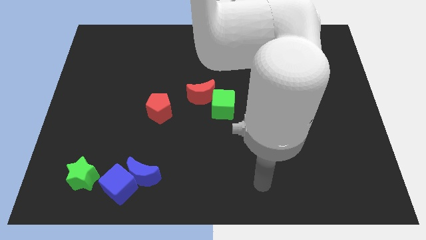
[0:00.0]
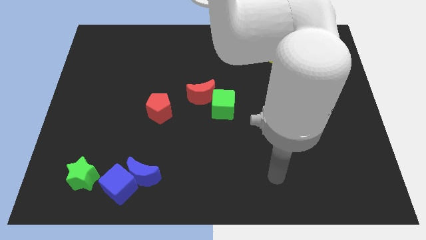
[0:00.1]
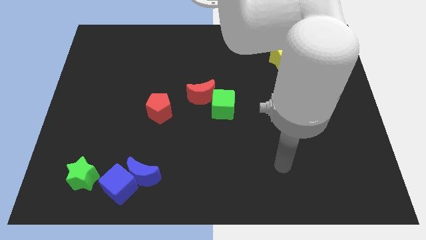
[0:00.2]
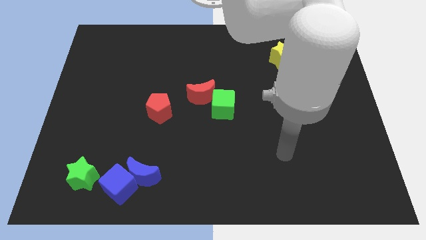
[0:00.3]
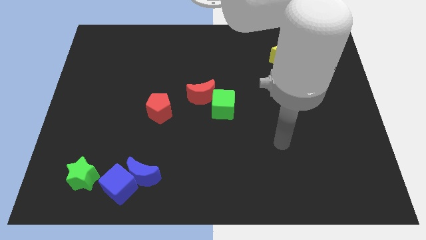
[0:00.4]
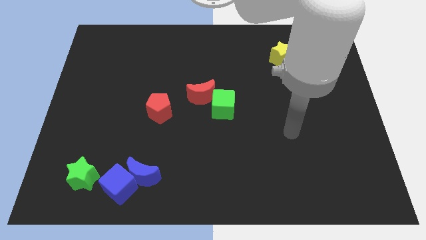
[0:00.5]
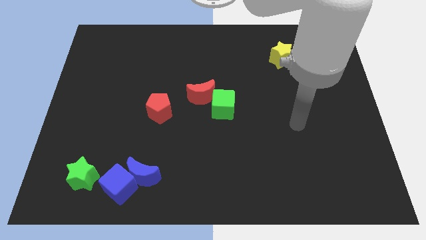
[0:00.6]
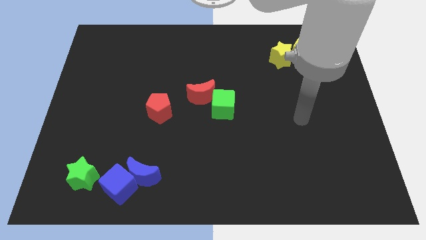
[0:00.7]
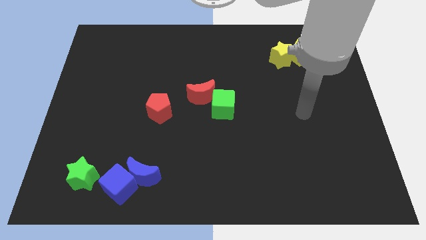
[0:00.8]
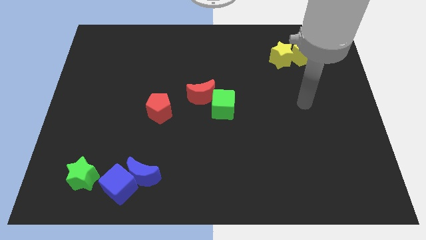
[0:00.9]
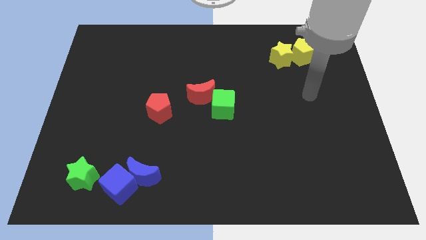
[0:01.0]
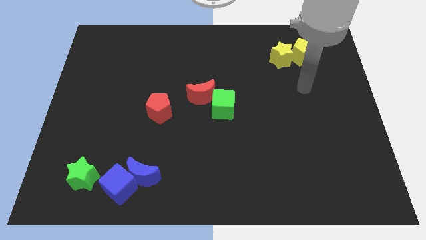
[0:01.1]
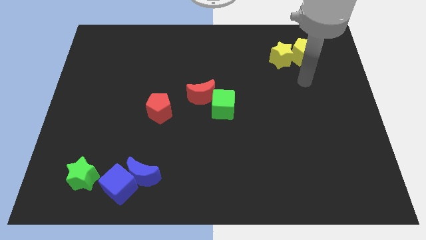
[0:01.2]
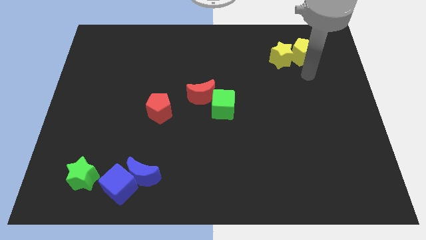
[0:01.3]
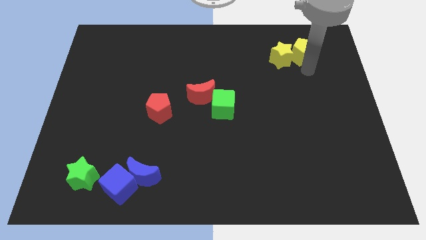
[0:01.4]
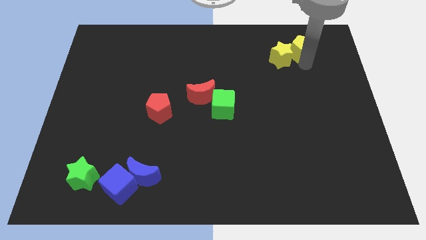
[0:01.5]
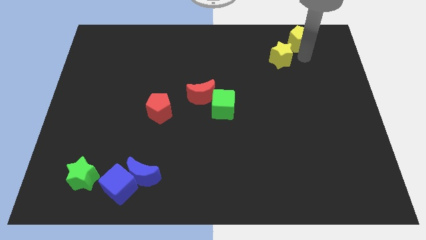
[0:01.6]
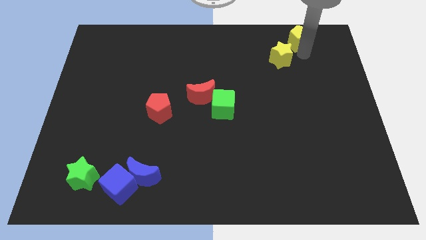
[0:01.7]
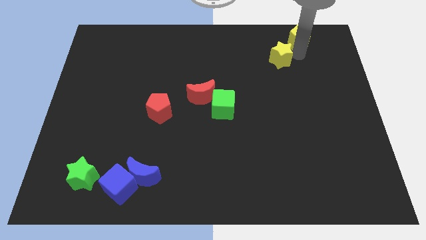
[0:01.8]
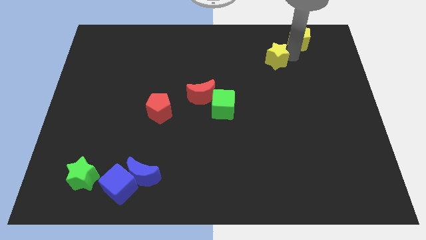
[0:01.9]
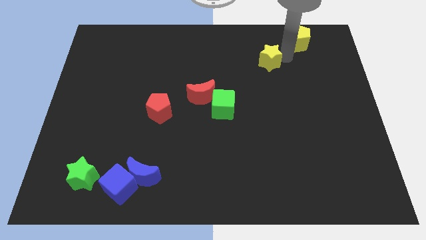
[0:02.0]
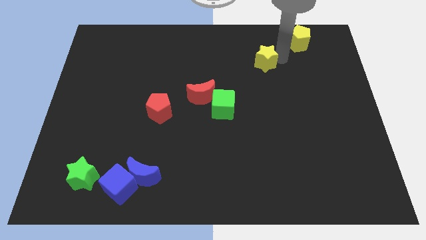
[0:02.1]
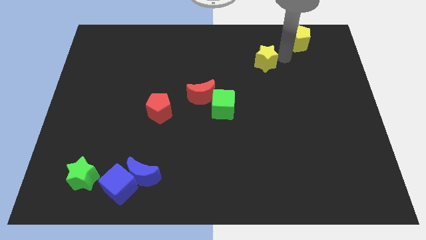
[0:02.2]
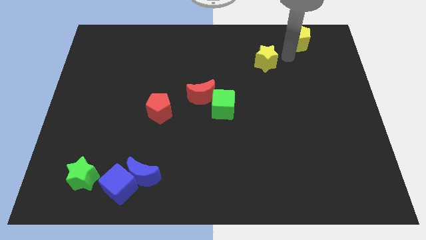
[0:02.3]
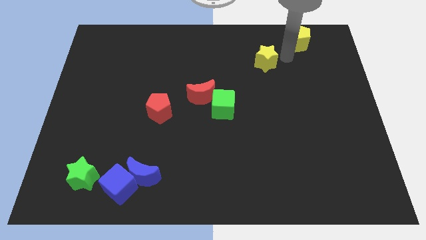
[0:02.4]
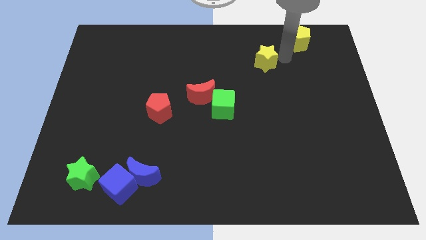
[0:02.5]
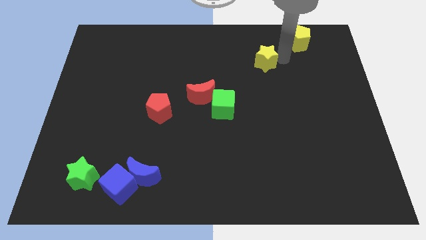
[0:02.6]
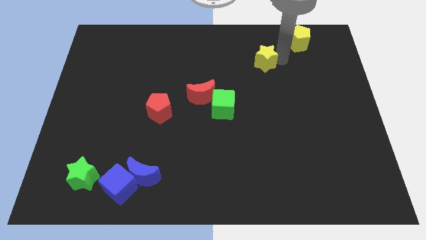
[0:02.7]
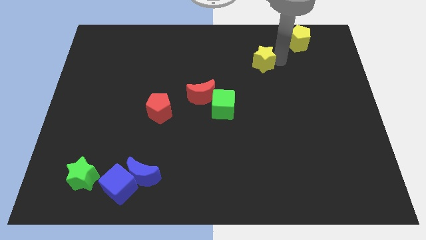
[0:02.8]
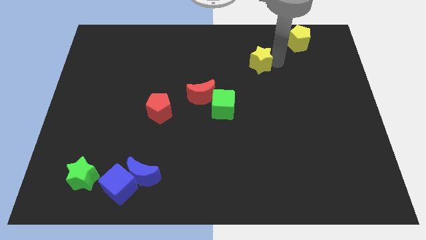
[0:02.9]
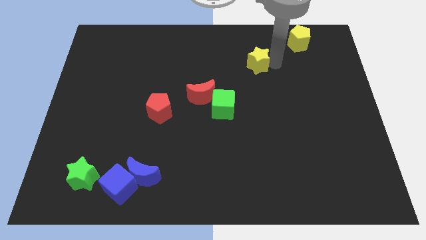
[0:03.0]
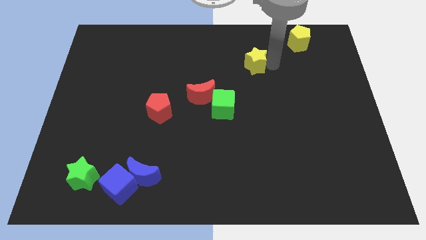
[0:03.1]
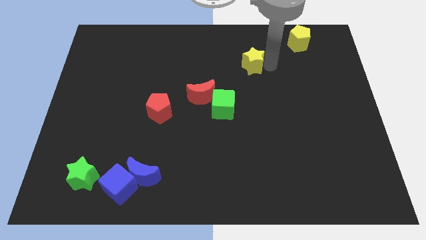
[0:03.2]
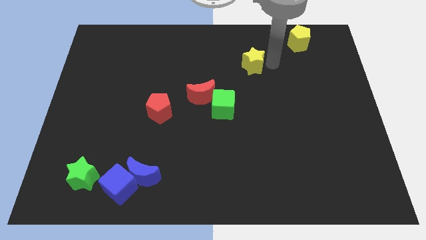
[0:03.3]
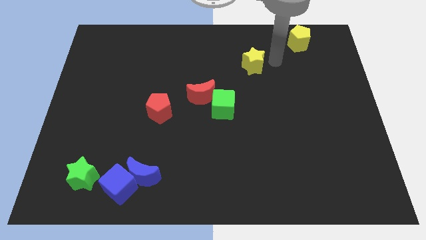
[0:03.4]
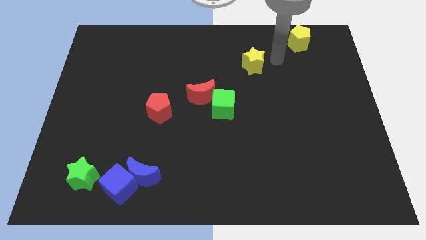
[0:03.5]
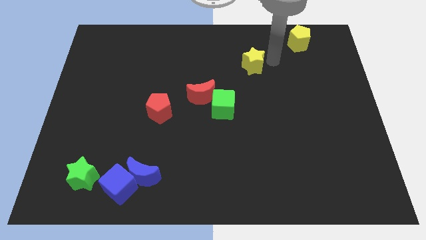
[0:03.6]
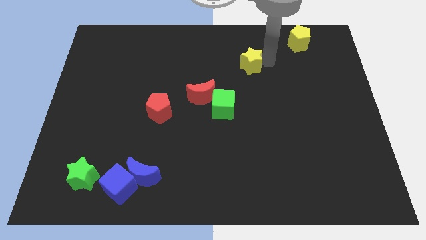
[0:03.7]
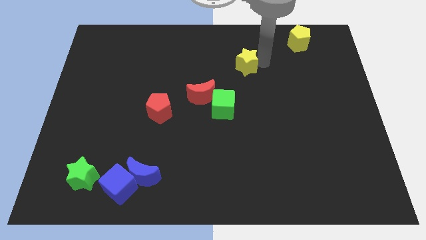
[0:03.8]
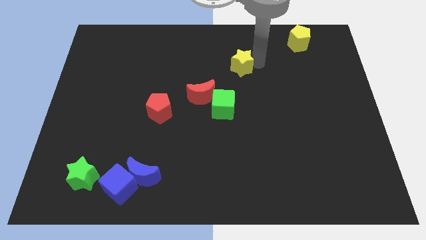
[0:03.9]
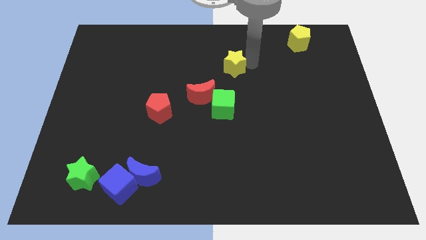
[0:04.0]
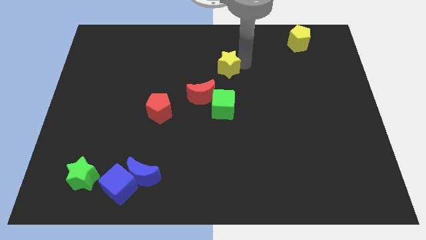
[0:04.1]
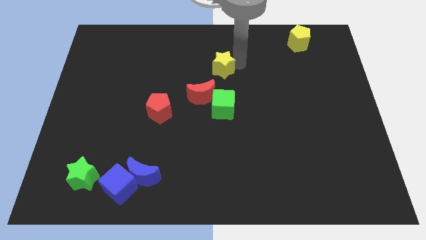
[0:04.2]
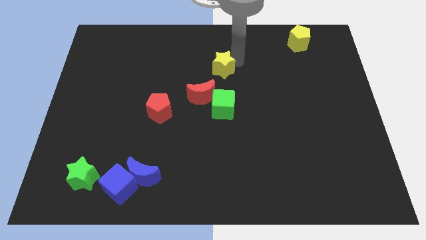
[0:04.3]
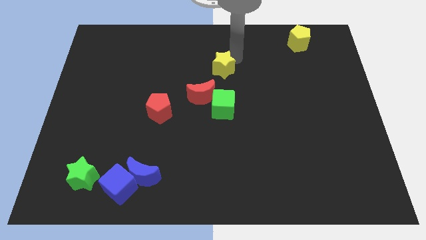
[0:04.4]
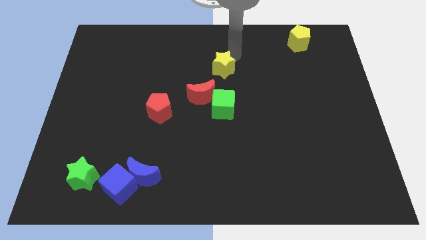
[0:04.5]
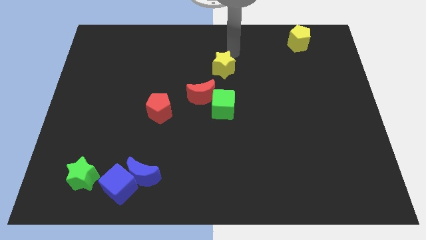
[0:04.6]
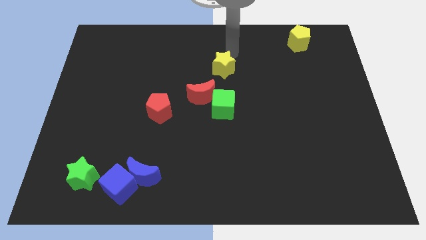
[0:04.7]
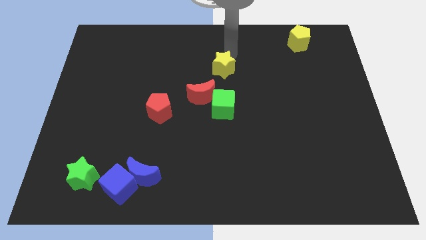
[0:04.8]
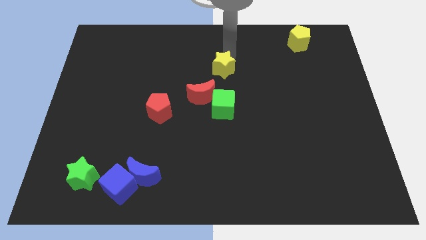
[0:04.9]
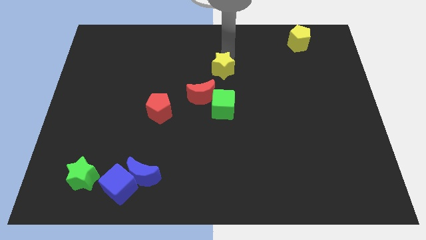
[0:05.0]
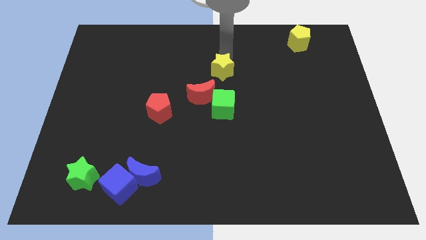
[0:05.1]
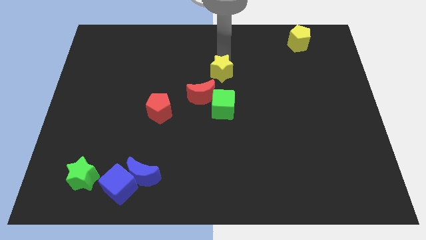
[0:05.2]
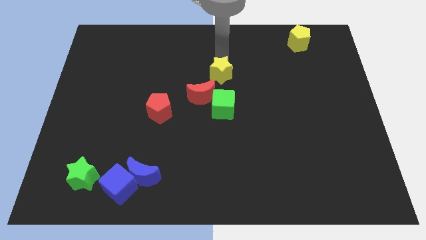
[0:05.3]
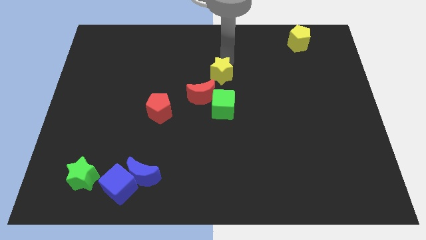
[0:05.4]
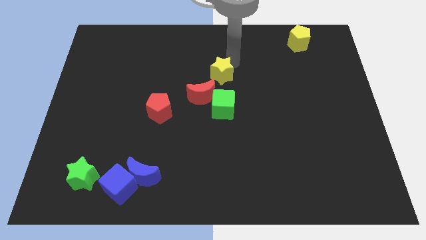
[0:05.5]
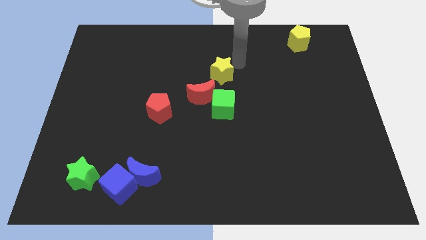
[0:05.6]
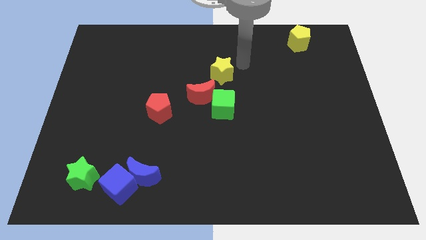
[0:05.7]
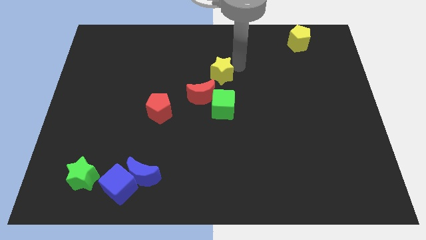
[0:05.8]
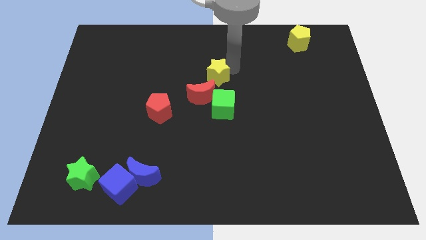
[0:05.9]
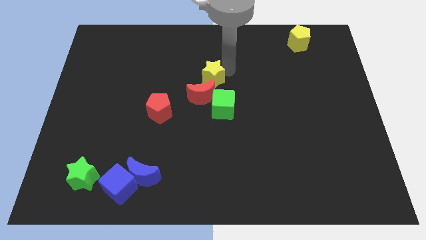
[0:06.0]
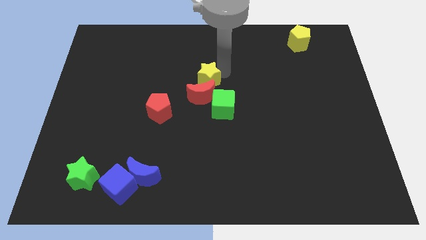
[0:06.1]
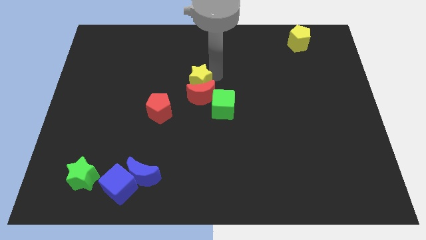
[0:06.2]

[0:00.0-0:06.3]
move the yellow star to the top right side of the red pentagon

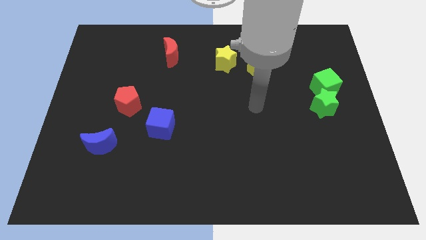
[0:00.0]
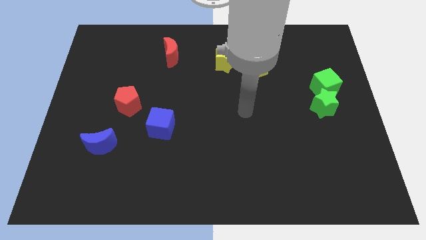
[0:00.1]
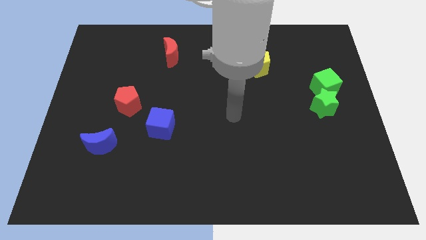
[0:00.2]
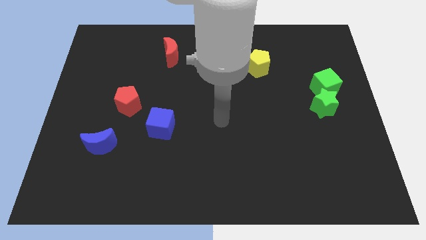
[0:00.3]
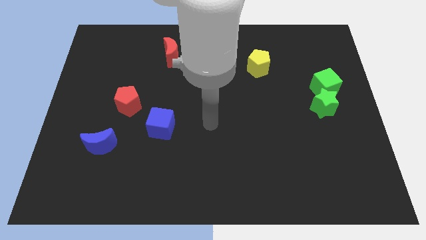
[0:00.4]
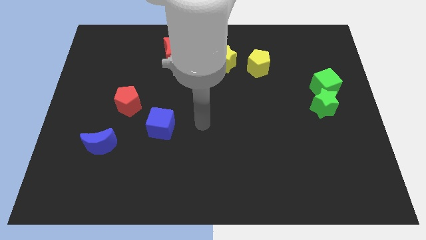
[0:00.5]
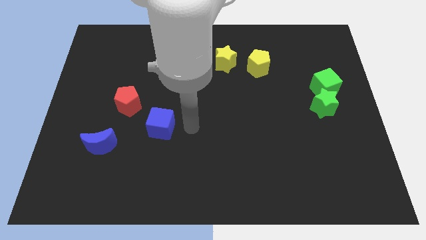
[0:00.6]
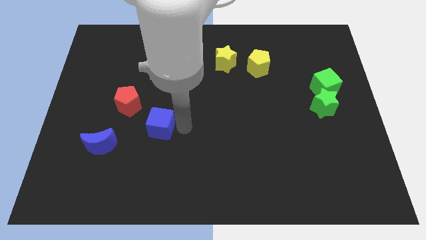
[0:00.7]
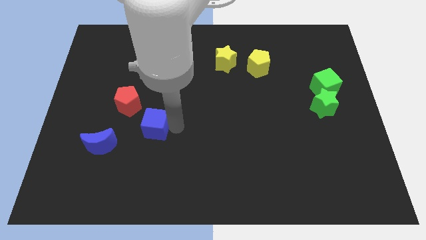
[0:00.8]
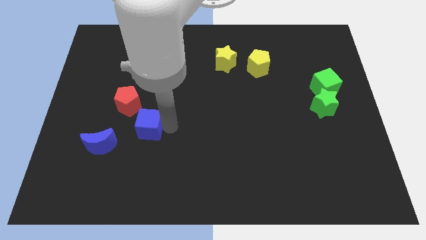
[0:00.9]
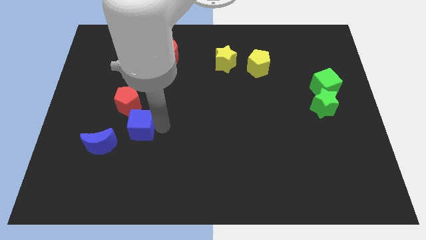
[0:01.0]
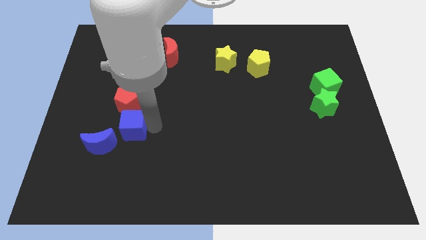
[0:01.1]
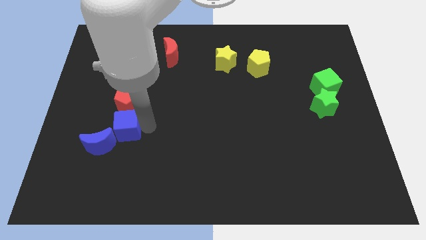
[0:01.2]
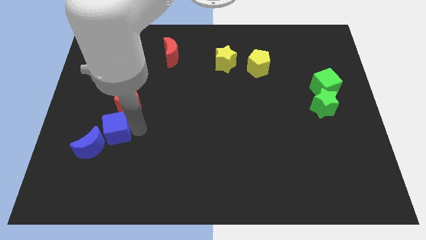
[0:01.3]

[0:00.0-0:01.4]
put the blue cube above the blue moon
